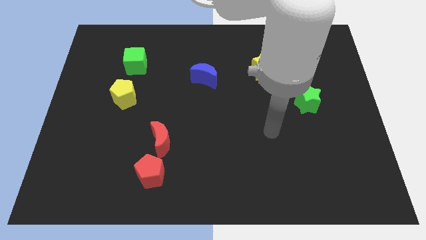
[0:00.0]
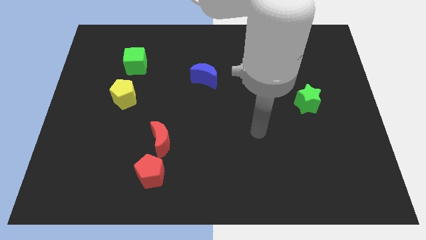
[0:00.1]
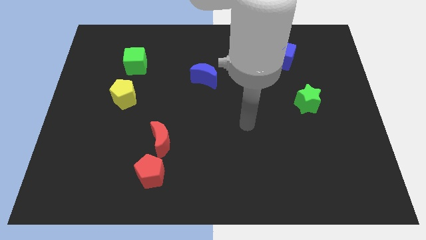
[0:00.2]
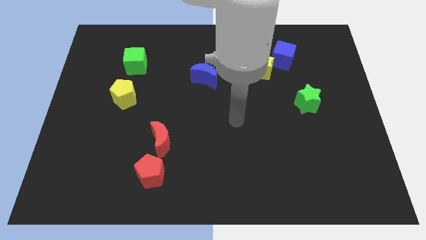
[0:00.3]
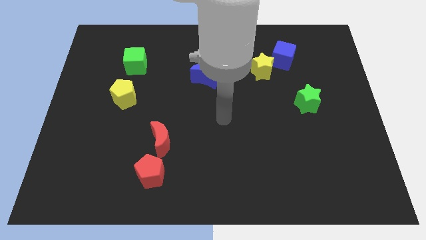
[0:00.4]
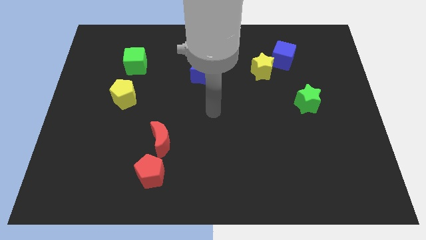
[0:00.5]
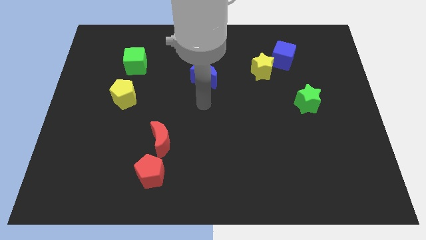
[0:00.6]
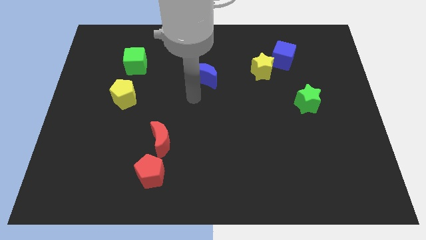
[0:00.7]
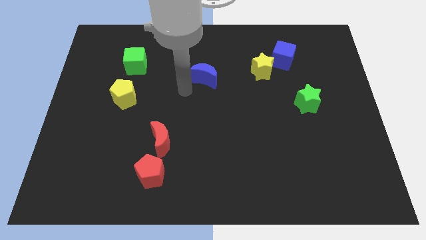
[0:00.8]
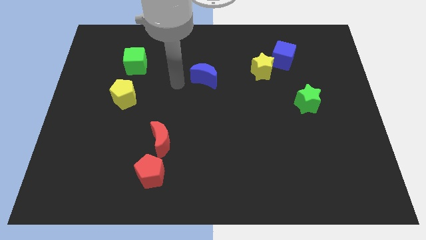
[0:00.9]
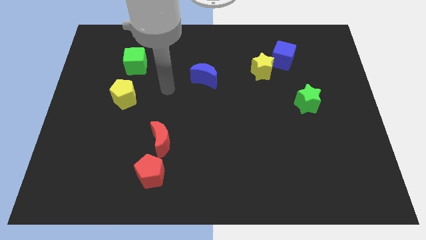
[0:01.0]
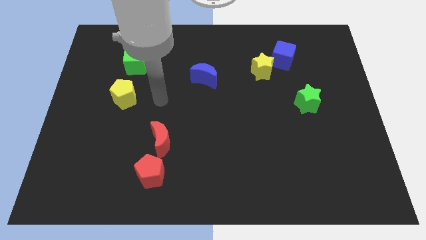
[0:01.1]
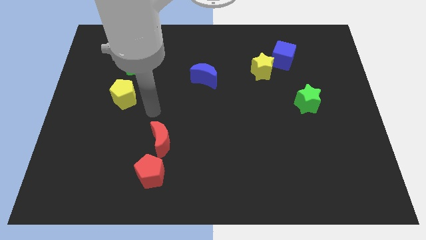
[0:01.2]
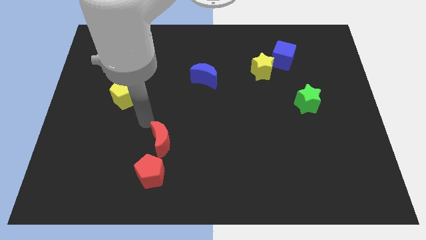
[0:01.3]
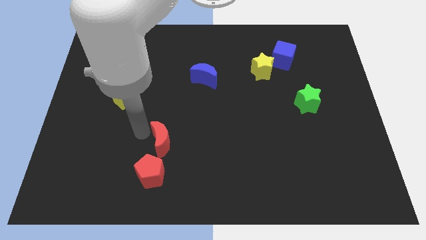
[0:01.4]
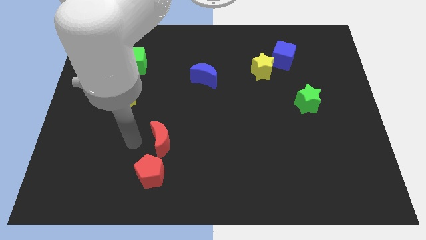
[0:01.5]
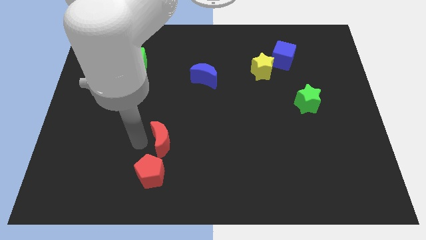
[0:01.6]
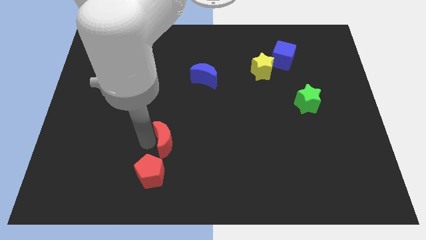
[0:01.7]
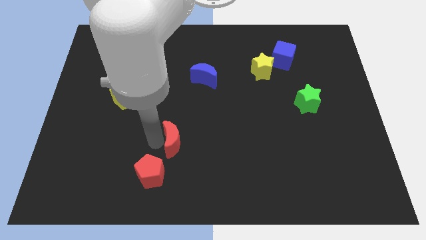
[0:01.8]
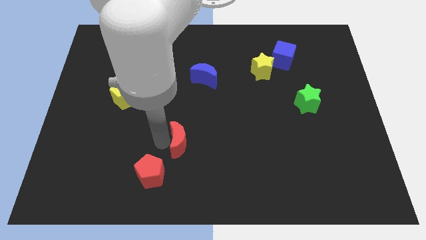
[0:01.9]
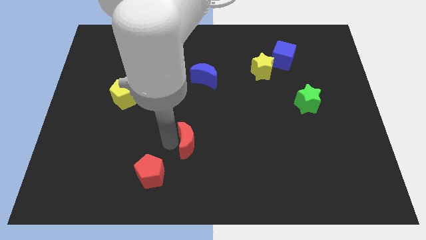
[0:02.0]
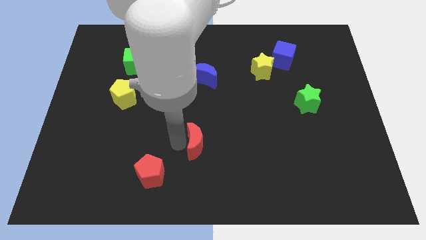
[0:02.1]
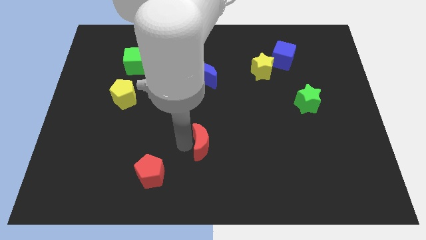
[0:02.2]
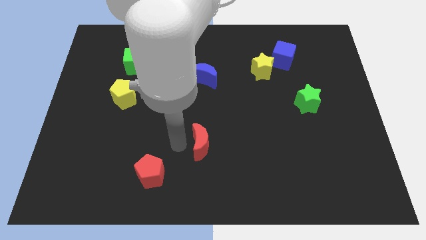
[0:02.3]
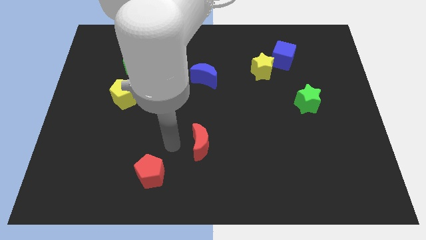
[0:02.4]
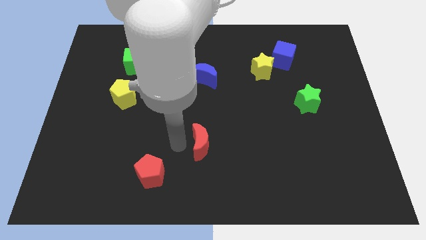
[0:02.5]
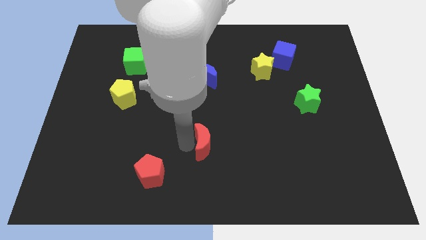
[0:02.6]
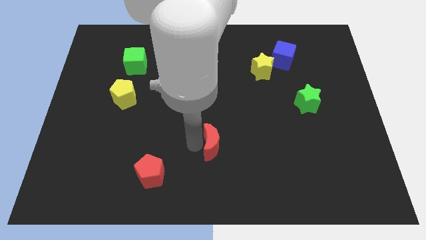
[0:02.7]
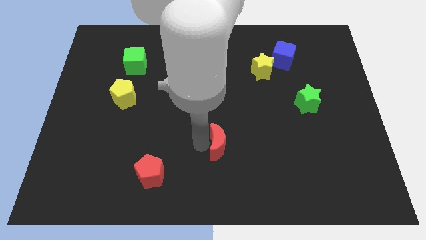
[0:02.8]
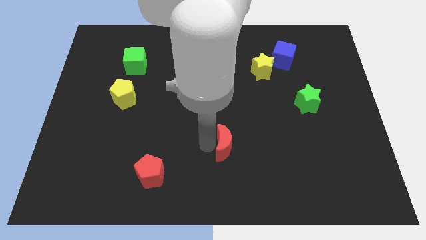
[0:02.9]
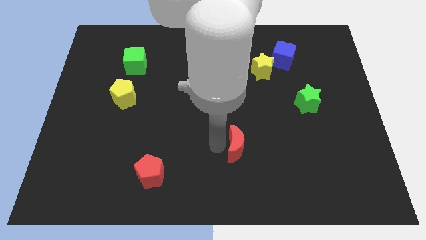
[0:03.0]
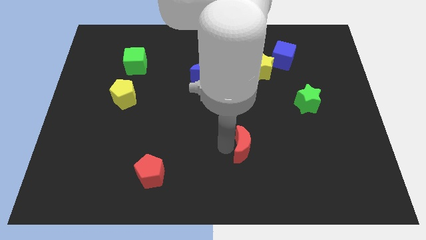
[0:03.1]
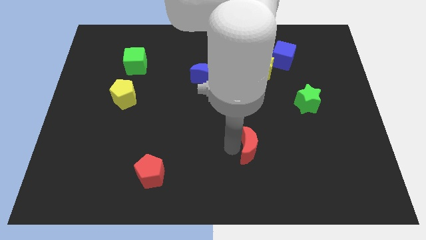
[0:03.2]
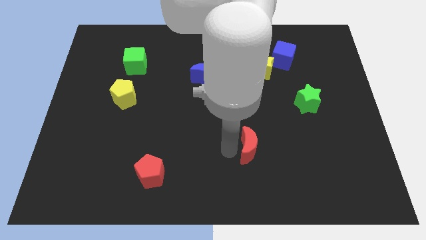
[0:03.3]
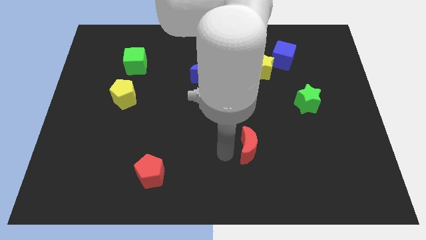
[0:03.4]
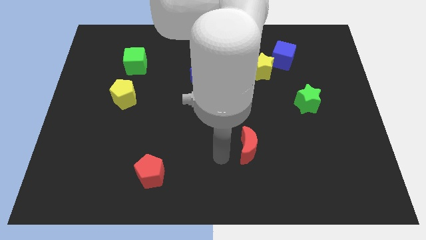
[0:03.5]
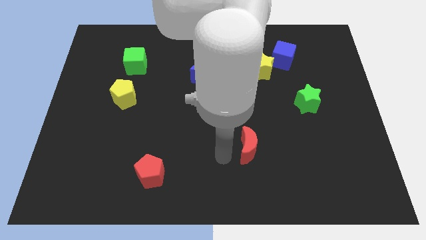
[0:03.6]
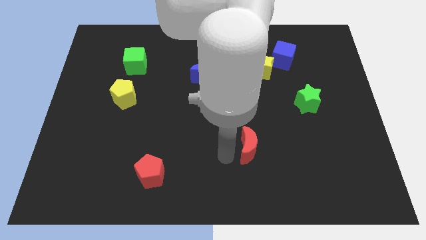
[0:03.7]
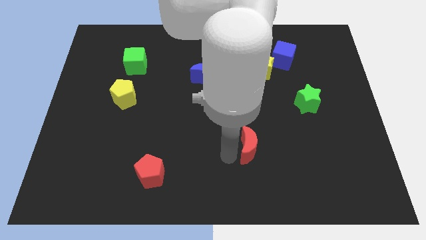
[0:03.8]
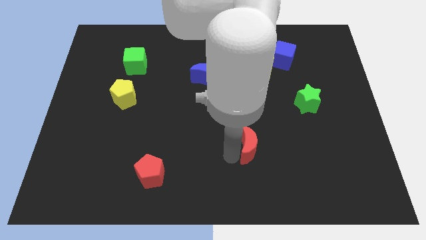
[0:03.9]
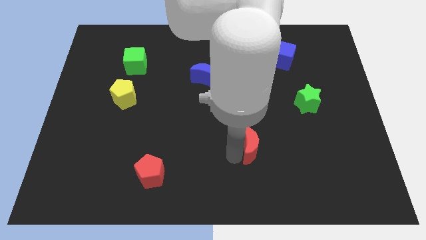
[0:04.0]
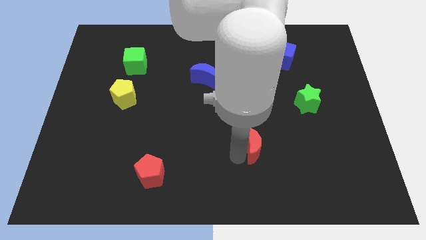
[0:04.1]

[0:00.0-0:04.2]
push the red moon right

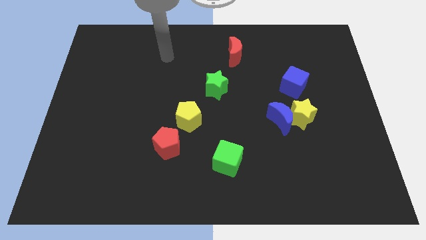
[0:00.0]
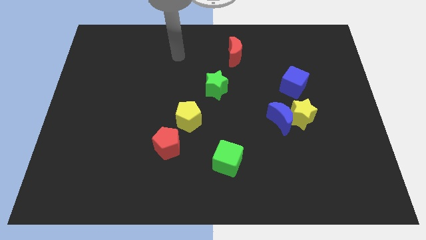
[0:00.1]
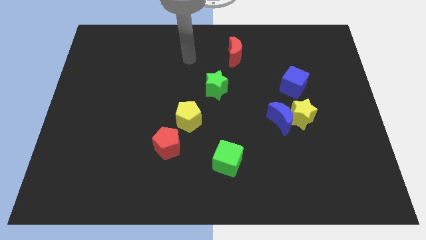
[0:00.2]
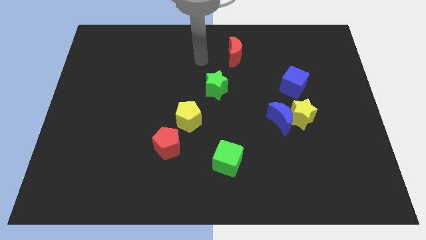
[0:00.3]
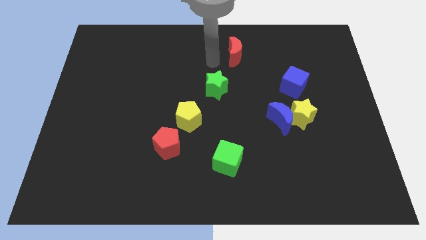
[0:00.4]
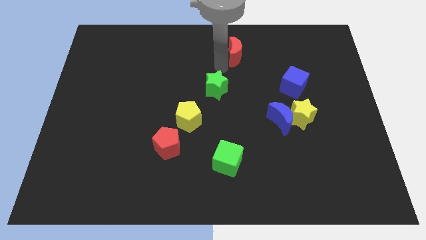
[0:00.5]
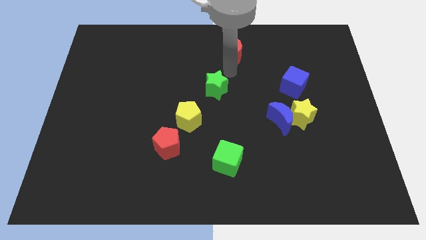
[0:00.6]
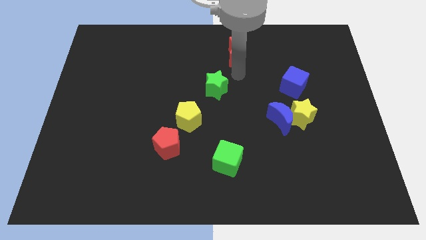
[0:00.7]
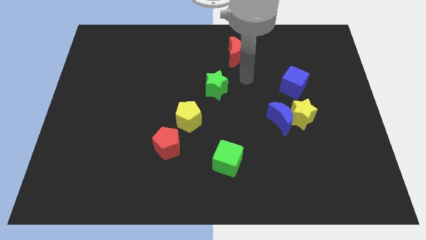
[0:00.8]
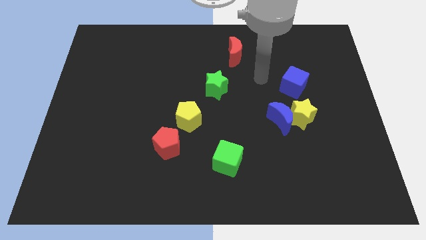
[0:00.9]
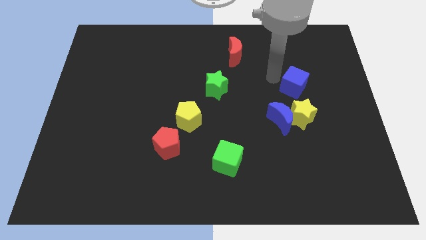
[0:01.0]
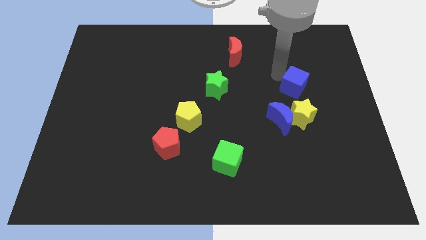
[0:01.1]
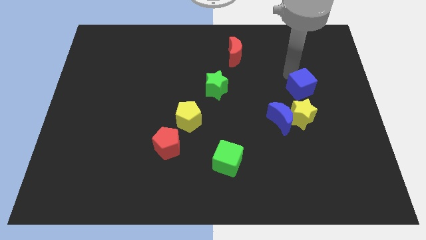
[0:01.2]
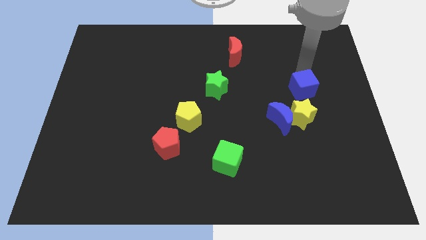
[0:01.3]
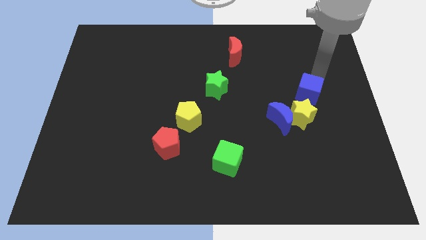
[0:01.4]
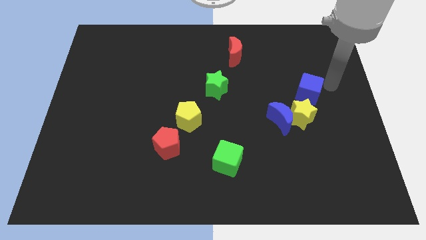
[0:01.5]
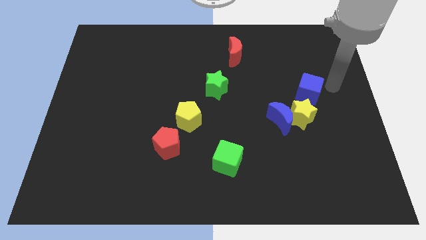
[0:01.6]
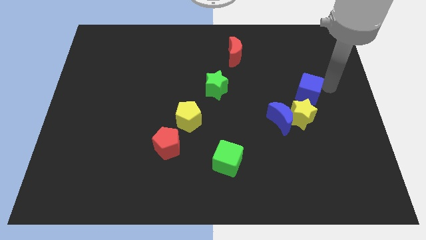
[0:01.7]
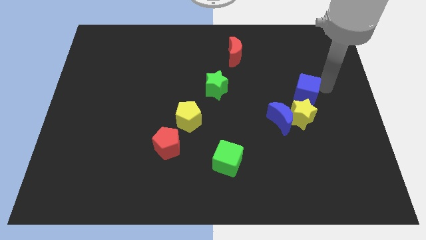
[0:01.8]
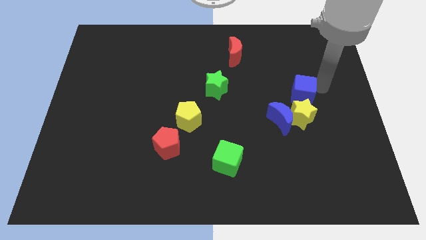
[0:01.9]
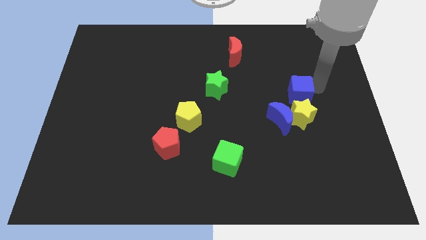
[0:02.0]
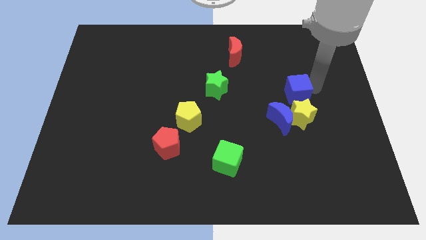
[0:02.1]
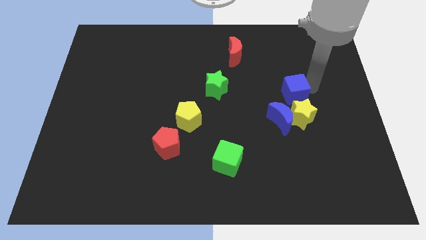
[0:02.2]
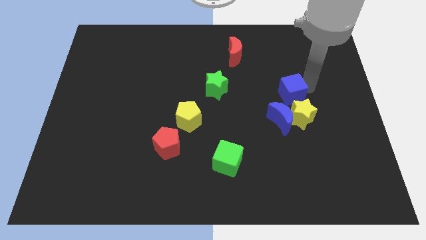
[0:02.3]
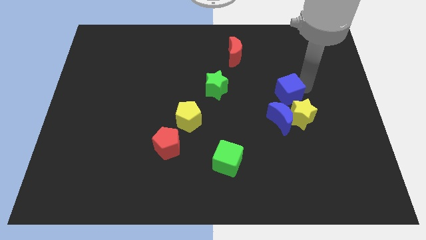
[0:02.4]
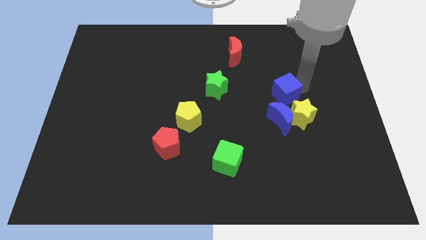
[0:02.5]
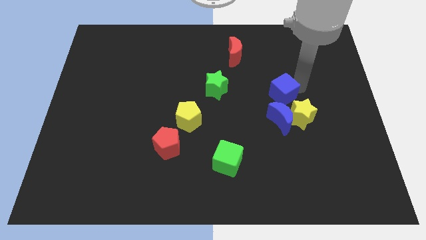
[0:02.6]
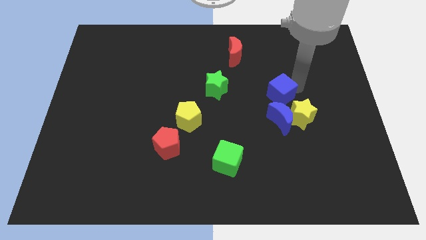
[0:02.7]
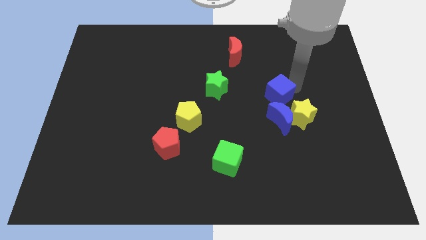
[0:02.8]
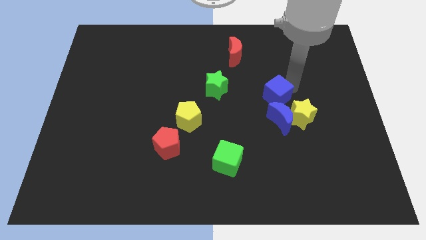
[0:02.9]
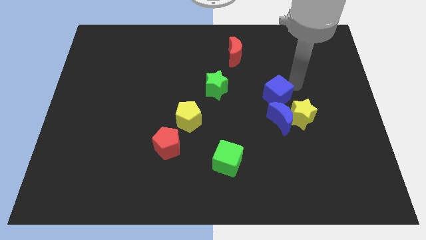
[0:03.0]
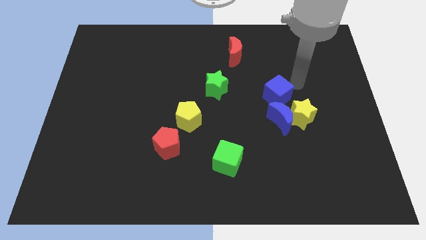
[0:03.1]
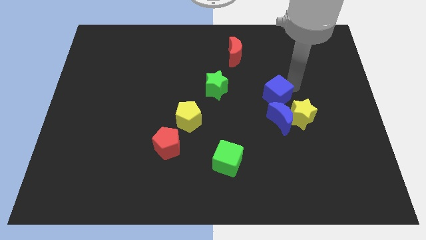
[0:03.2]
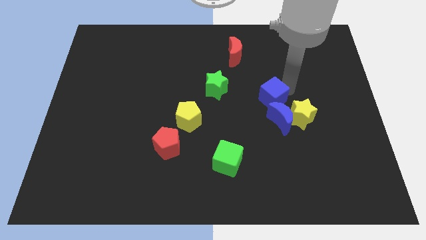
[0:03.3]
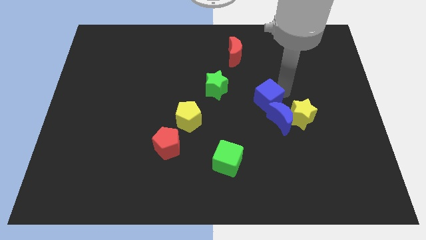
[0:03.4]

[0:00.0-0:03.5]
slightly move the blue cube diagonally down and left

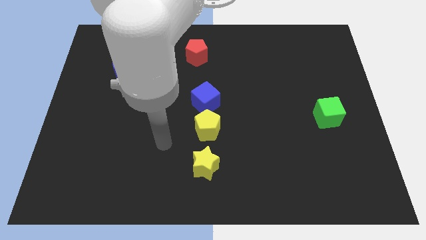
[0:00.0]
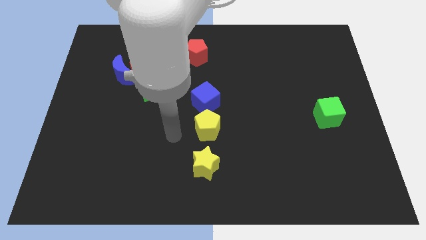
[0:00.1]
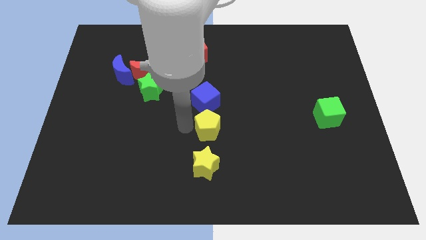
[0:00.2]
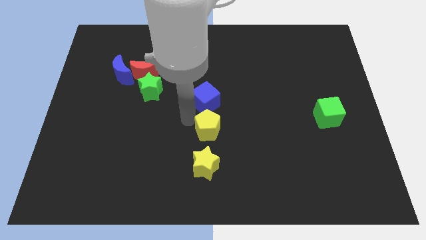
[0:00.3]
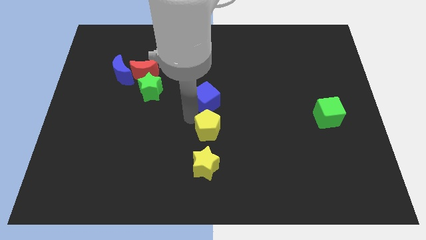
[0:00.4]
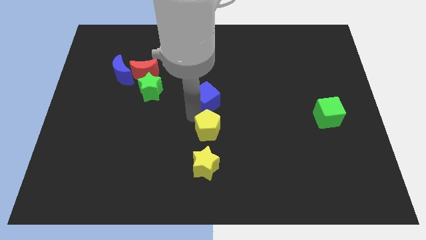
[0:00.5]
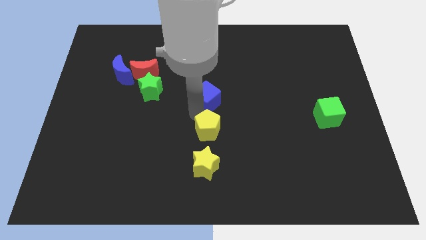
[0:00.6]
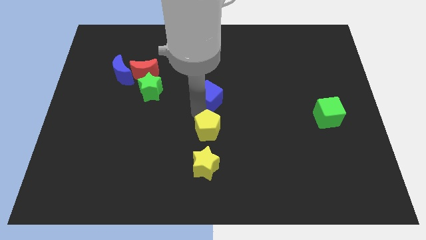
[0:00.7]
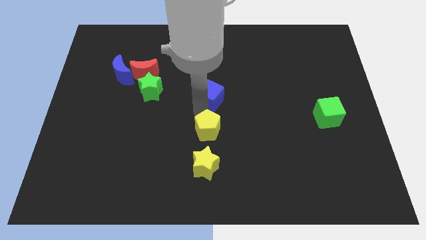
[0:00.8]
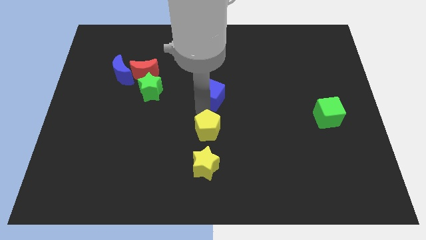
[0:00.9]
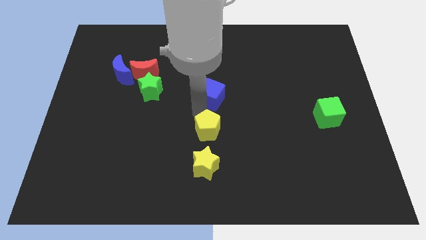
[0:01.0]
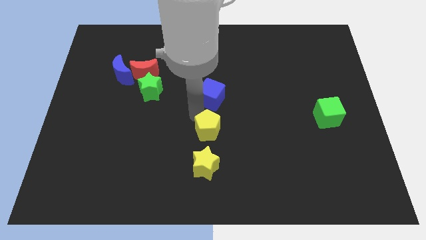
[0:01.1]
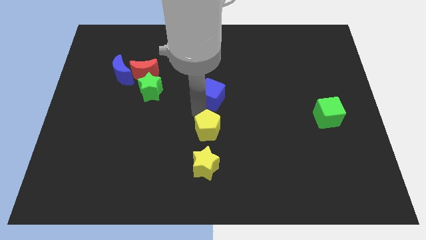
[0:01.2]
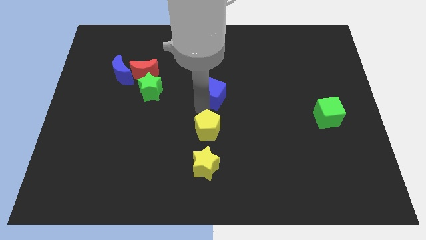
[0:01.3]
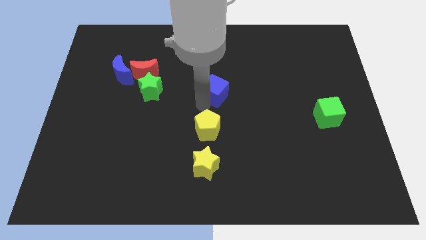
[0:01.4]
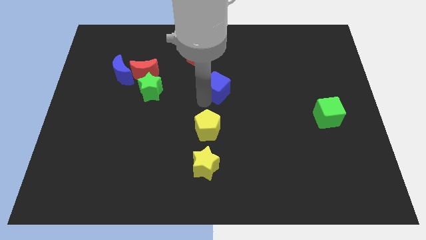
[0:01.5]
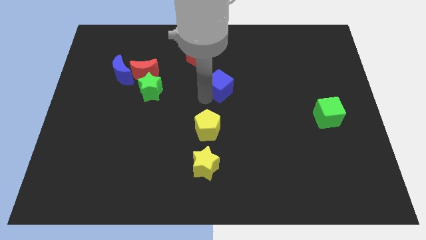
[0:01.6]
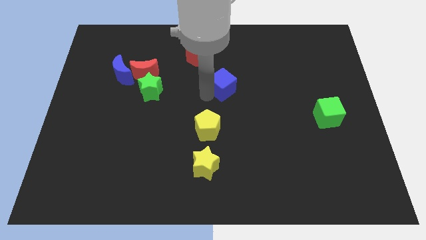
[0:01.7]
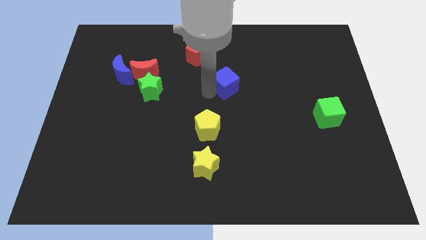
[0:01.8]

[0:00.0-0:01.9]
move the blue cube up and then right a little bit
